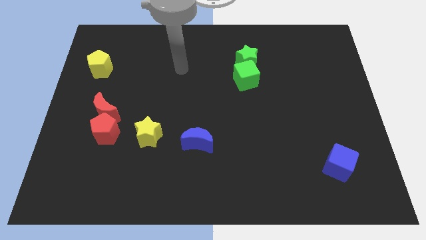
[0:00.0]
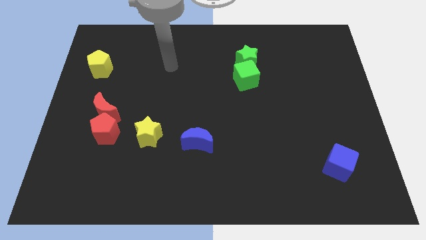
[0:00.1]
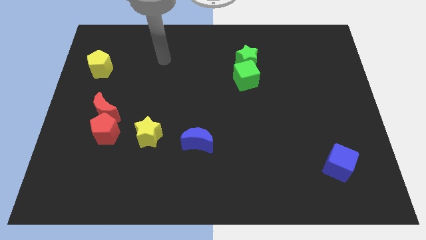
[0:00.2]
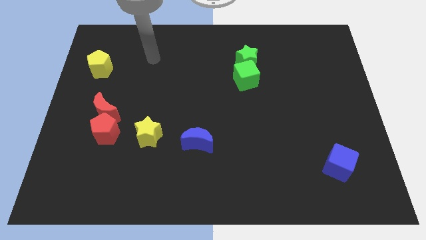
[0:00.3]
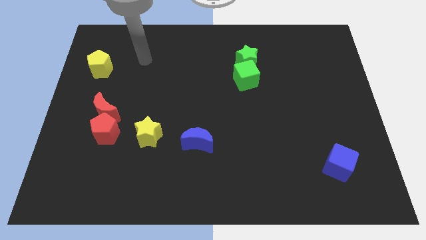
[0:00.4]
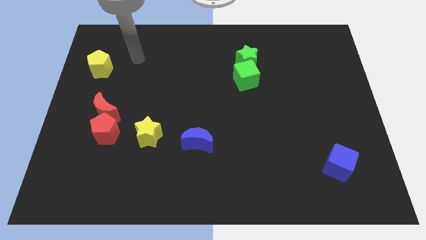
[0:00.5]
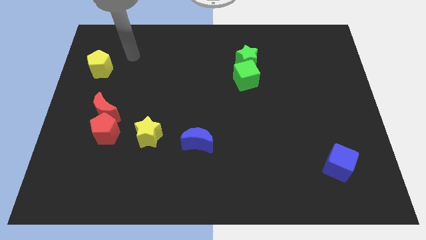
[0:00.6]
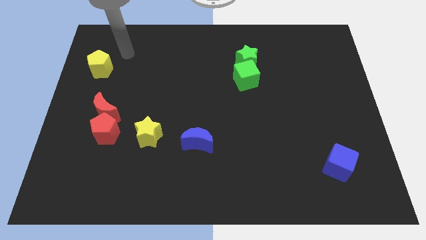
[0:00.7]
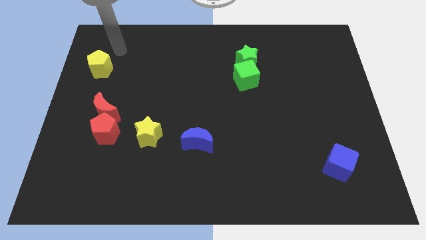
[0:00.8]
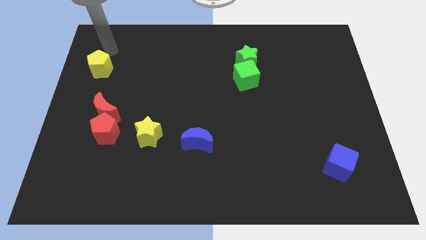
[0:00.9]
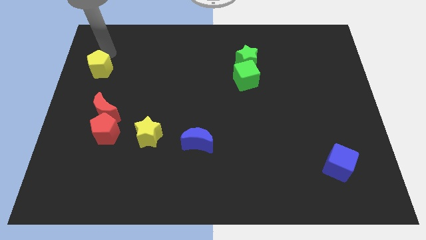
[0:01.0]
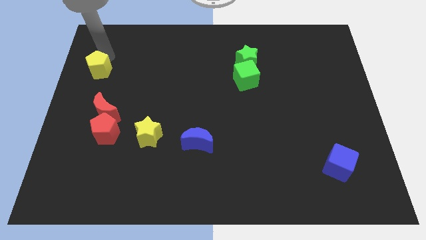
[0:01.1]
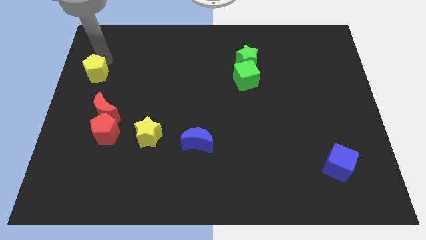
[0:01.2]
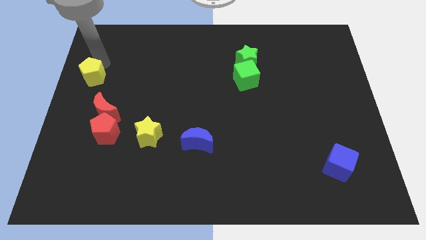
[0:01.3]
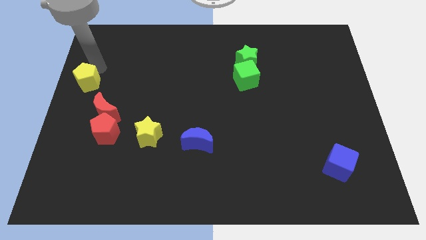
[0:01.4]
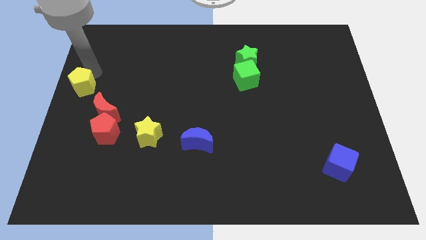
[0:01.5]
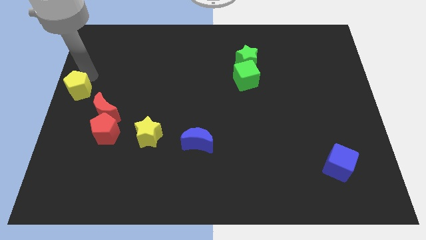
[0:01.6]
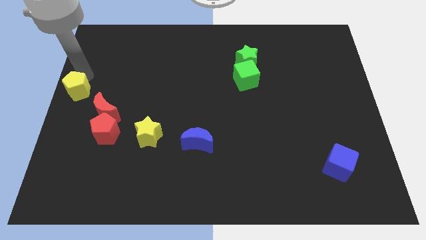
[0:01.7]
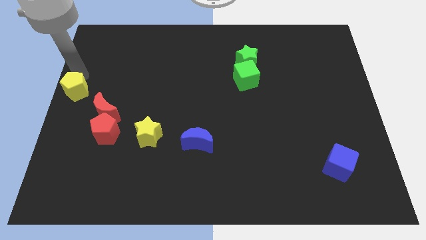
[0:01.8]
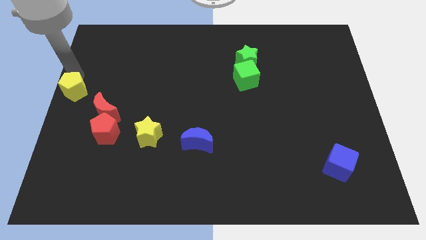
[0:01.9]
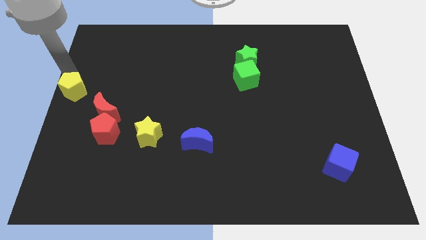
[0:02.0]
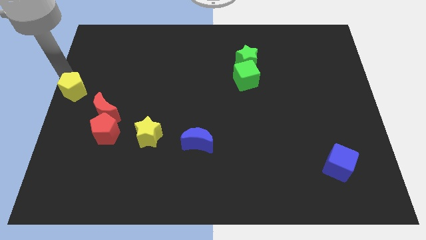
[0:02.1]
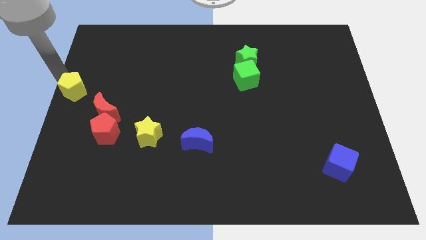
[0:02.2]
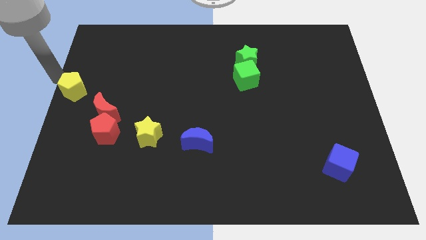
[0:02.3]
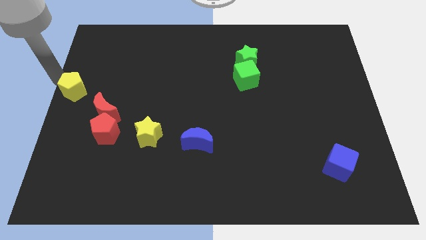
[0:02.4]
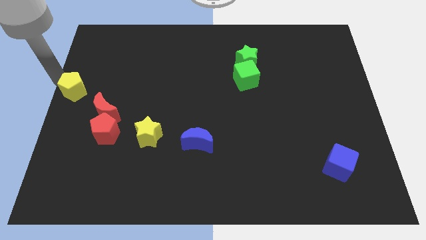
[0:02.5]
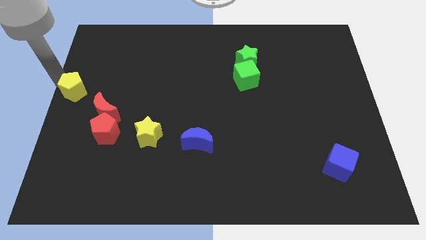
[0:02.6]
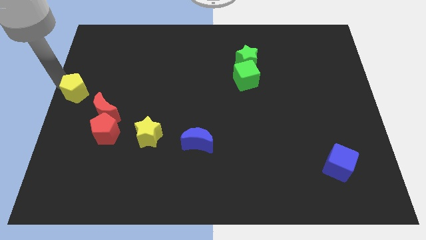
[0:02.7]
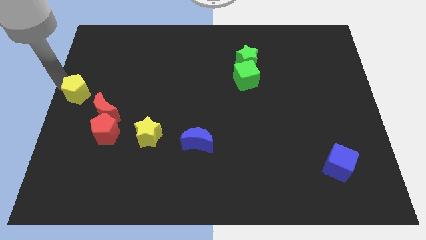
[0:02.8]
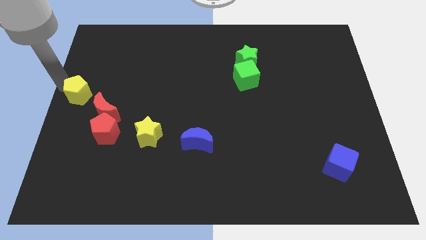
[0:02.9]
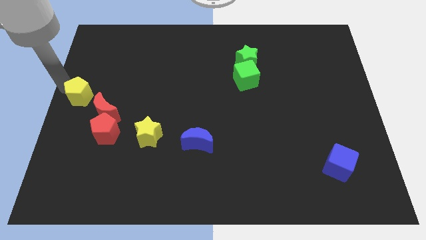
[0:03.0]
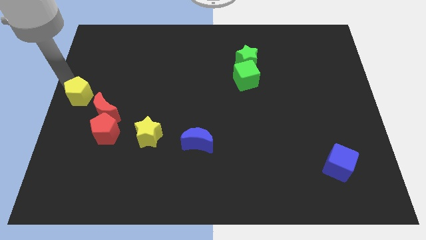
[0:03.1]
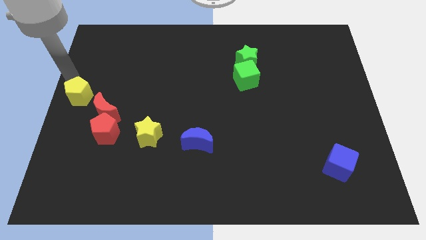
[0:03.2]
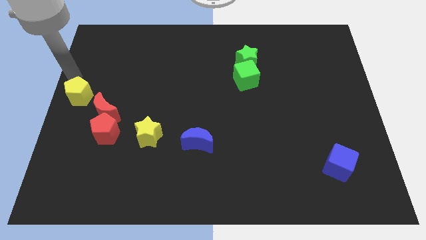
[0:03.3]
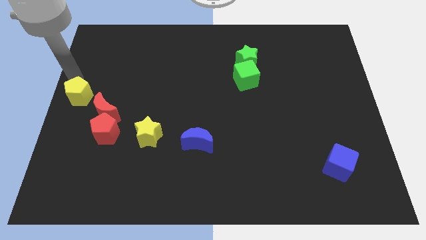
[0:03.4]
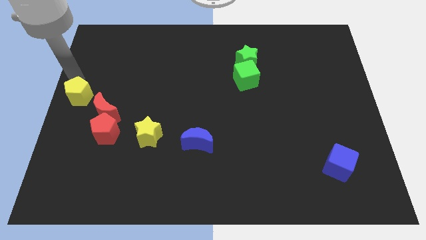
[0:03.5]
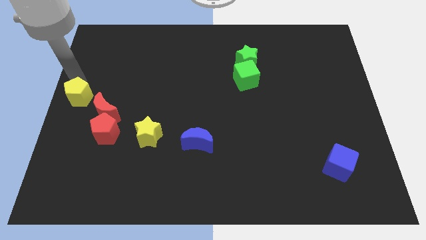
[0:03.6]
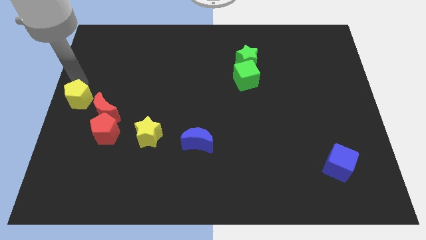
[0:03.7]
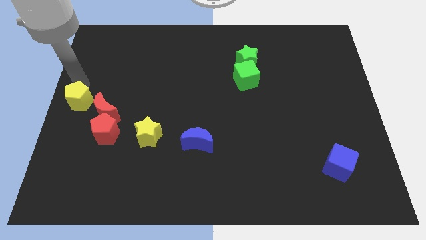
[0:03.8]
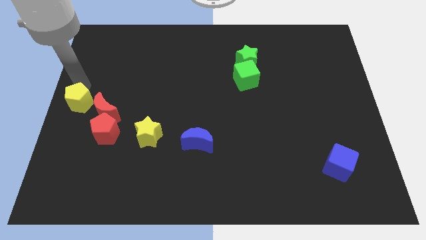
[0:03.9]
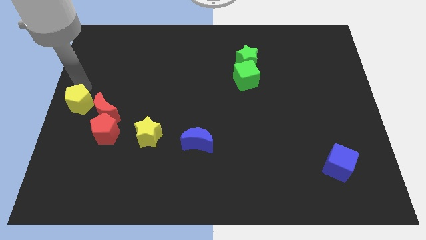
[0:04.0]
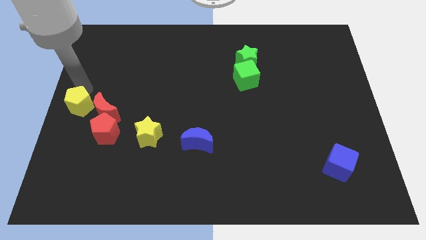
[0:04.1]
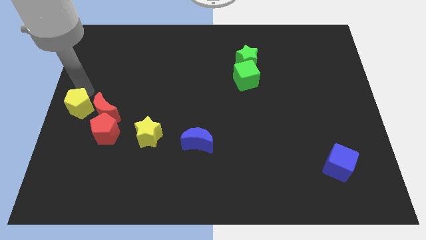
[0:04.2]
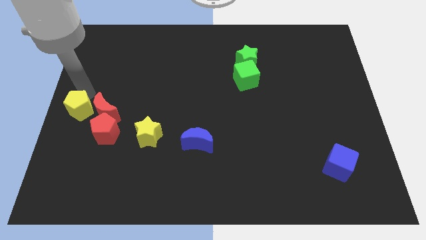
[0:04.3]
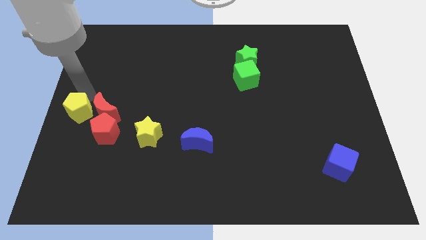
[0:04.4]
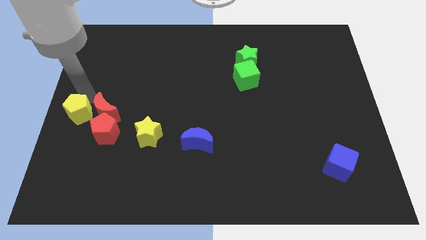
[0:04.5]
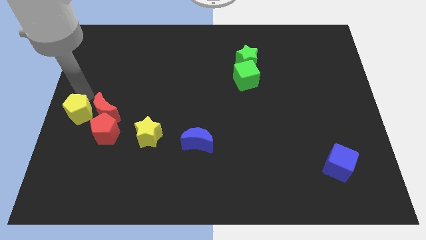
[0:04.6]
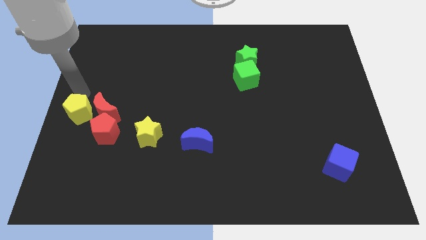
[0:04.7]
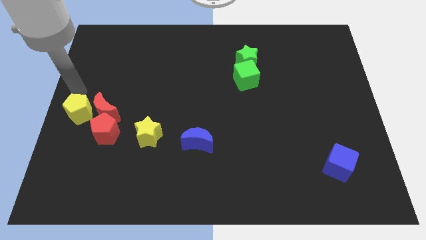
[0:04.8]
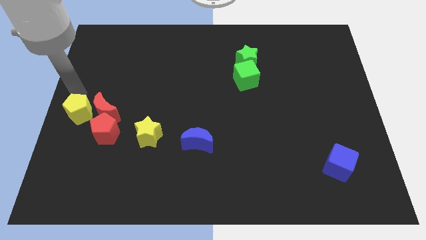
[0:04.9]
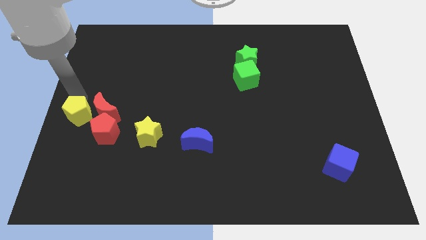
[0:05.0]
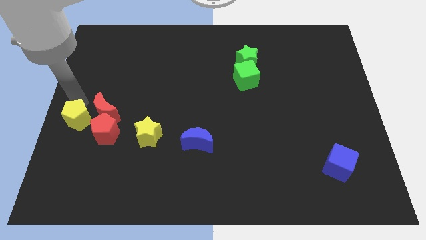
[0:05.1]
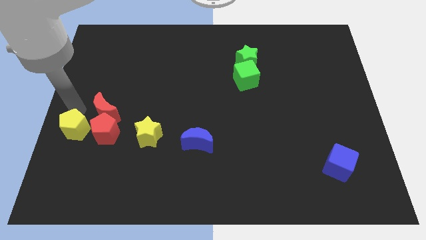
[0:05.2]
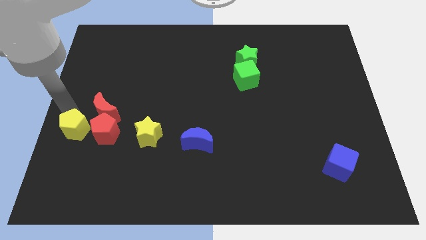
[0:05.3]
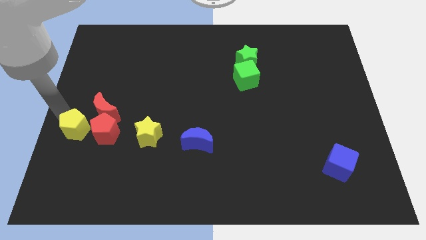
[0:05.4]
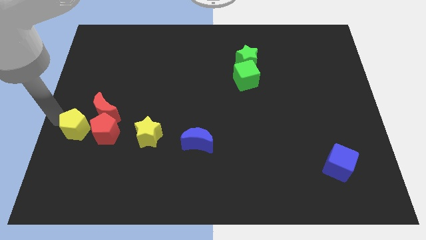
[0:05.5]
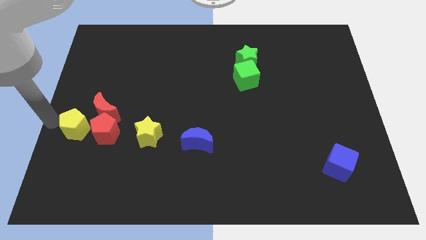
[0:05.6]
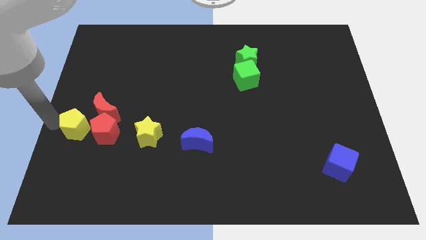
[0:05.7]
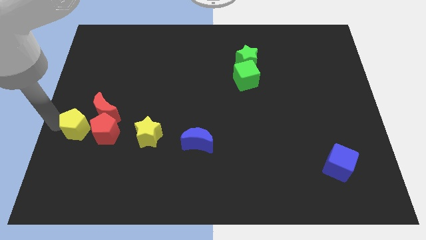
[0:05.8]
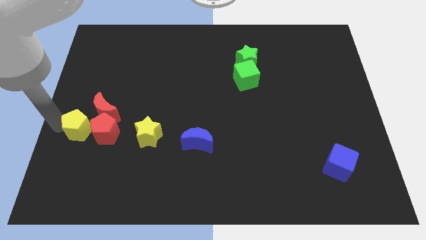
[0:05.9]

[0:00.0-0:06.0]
slide the yellow pentagon towards the red pentagon

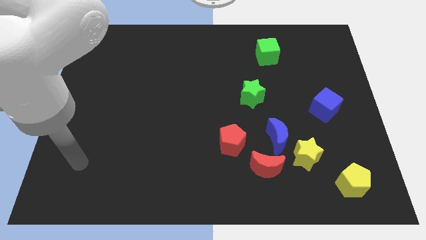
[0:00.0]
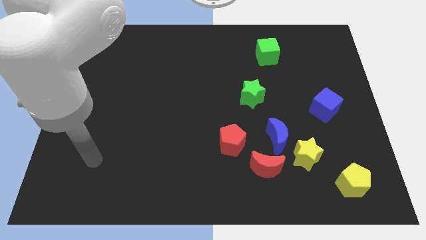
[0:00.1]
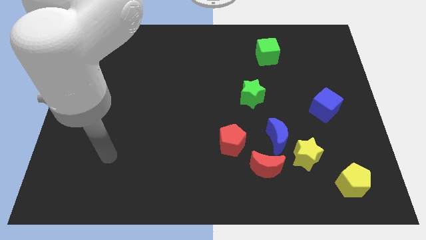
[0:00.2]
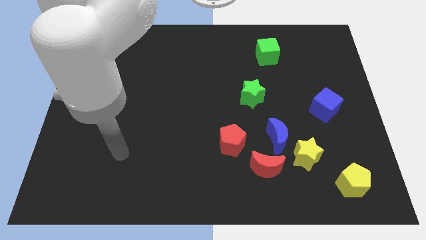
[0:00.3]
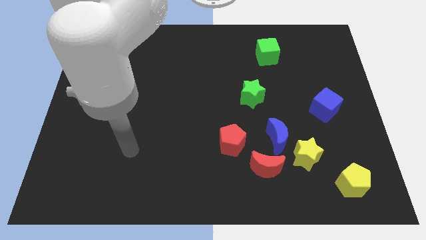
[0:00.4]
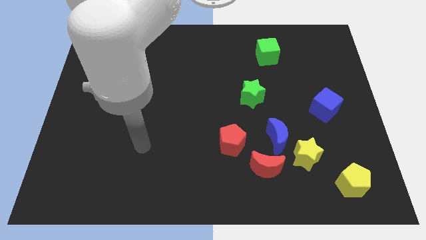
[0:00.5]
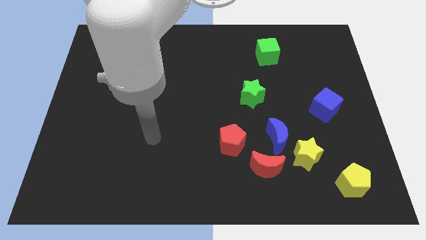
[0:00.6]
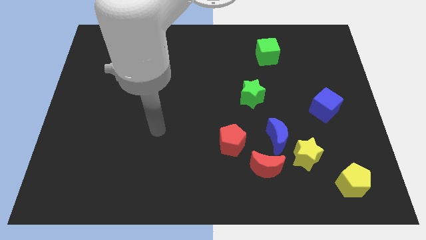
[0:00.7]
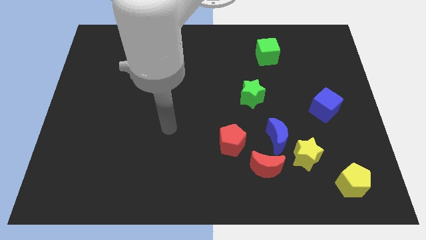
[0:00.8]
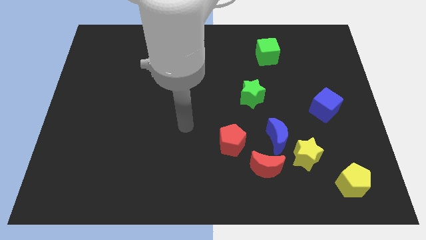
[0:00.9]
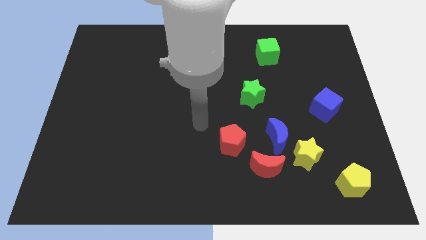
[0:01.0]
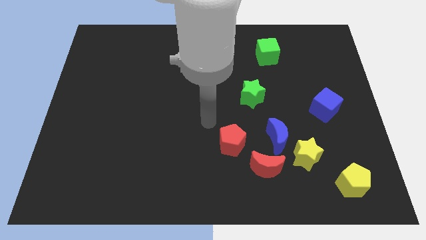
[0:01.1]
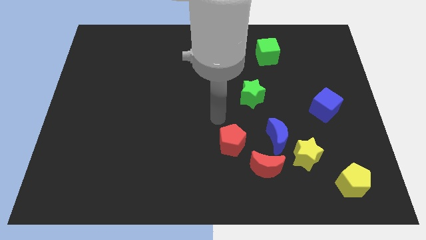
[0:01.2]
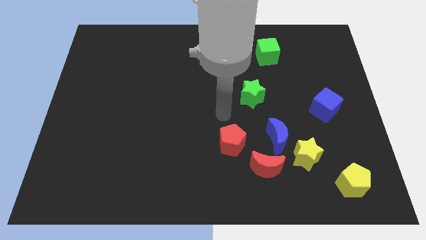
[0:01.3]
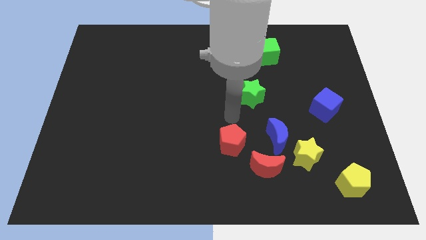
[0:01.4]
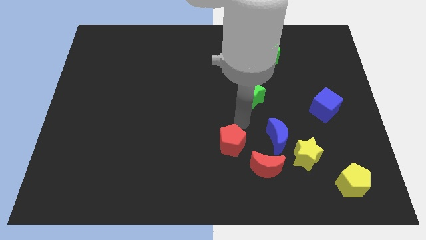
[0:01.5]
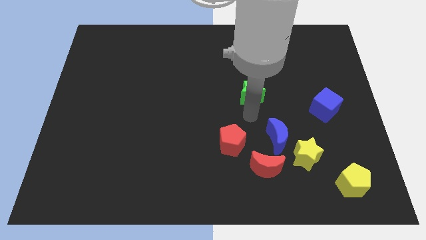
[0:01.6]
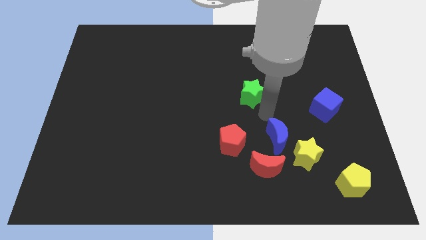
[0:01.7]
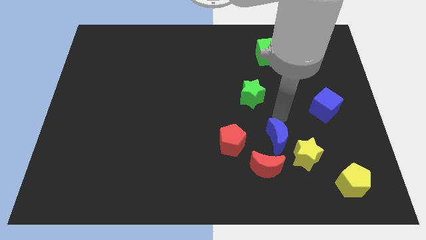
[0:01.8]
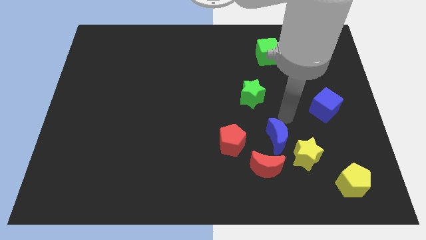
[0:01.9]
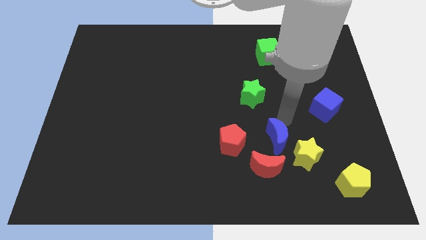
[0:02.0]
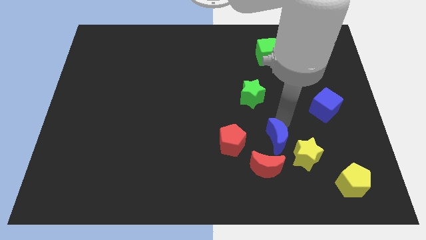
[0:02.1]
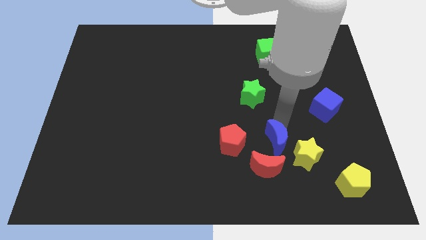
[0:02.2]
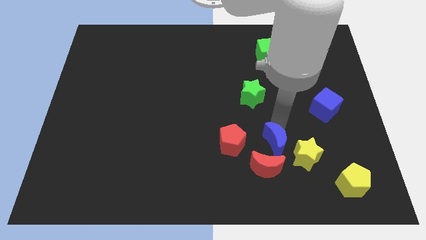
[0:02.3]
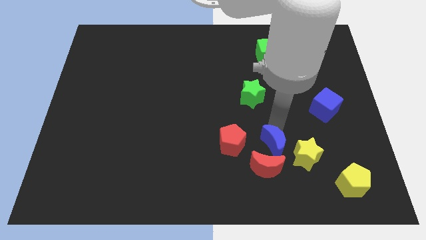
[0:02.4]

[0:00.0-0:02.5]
slide the blue moon to the red moon
